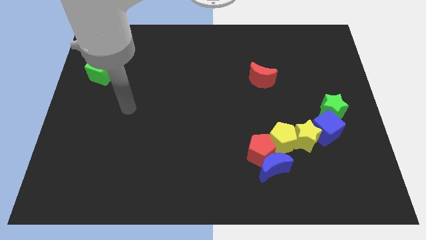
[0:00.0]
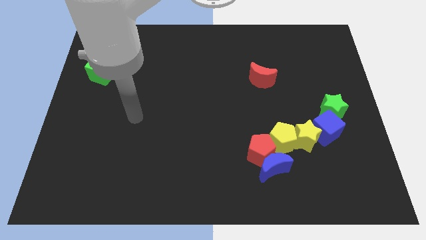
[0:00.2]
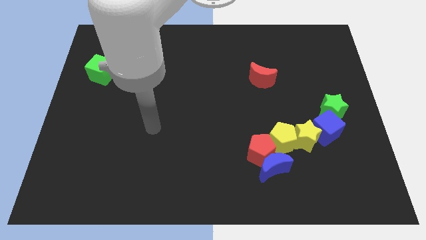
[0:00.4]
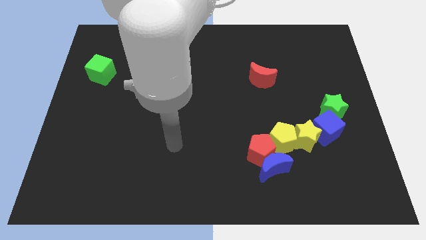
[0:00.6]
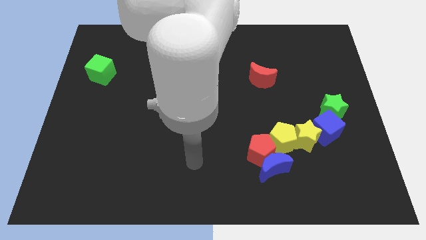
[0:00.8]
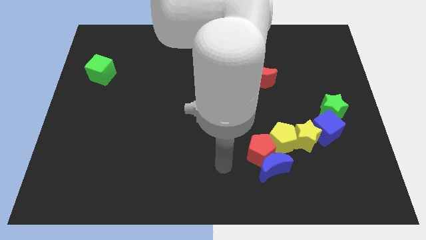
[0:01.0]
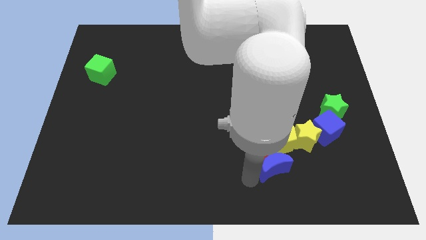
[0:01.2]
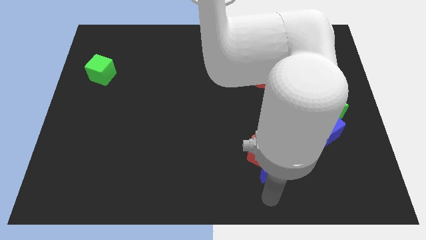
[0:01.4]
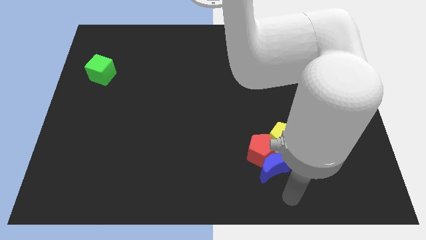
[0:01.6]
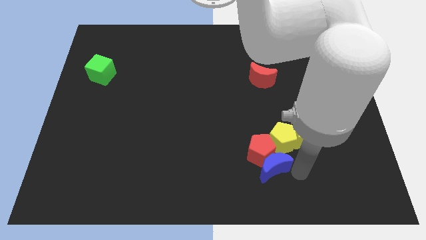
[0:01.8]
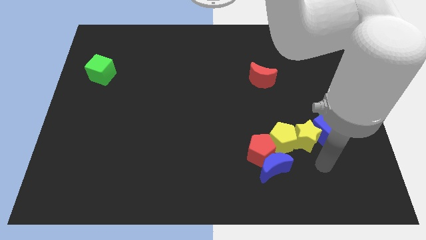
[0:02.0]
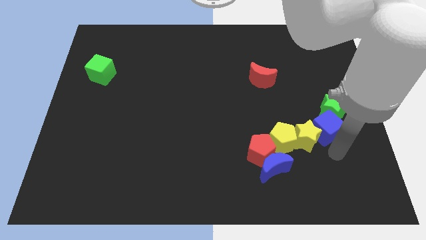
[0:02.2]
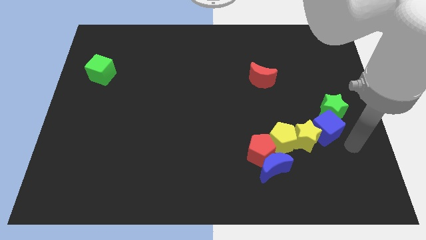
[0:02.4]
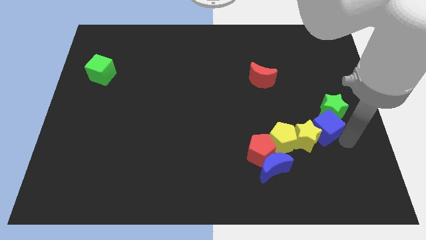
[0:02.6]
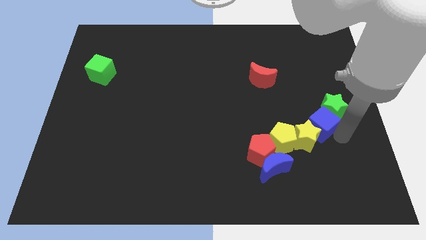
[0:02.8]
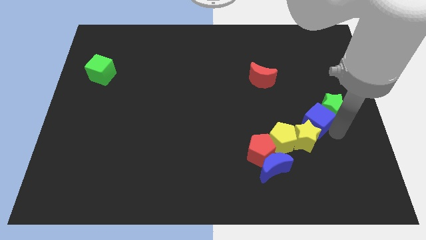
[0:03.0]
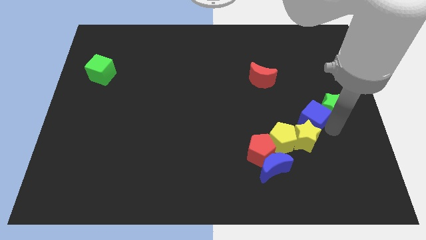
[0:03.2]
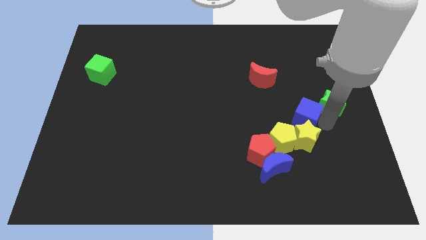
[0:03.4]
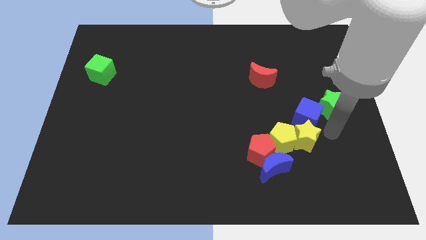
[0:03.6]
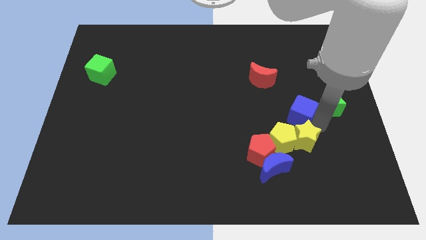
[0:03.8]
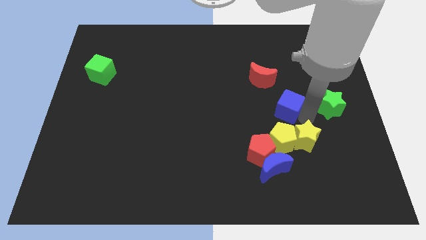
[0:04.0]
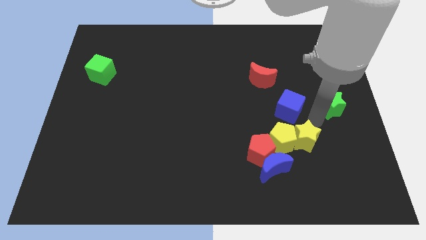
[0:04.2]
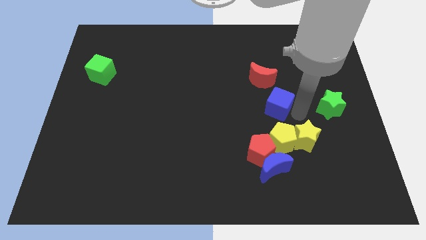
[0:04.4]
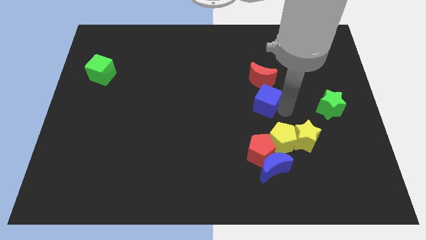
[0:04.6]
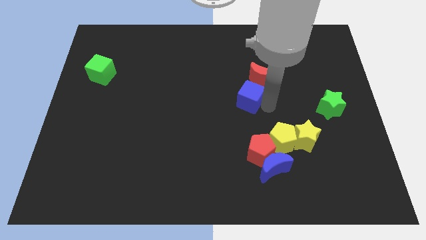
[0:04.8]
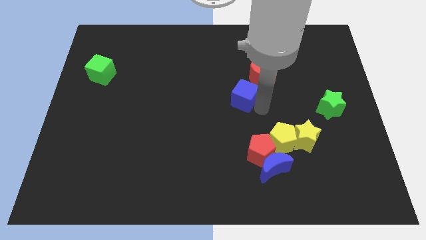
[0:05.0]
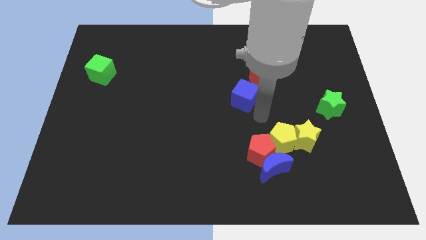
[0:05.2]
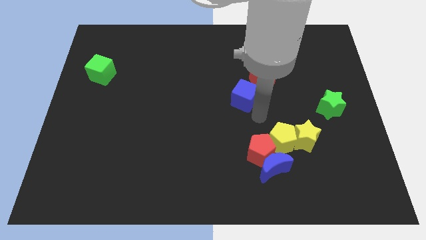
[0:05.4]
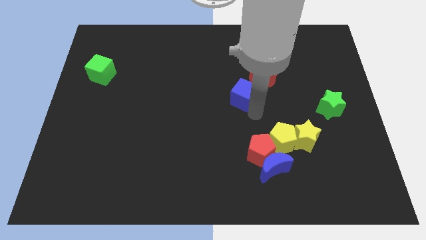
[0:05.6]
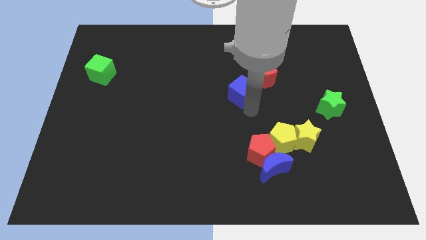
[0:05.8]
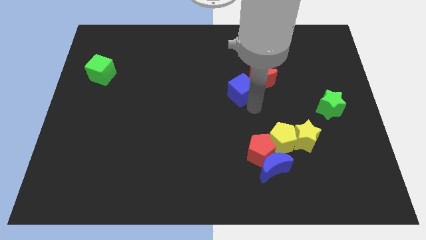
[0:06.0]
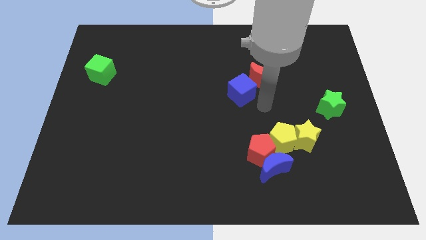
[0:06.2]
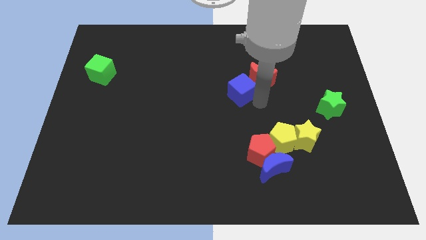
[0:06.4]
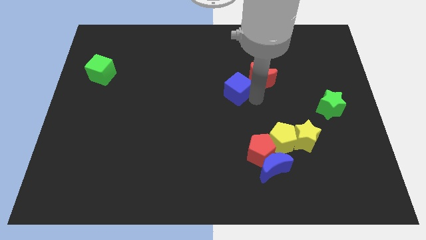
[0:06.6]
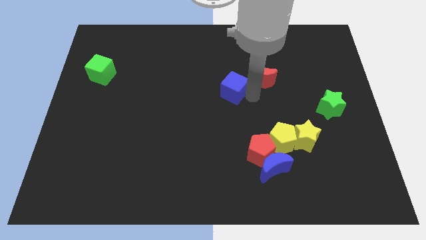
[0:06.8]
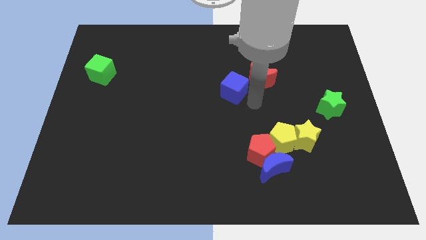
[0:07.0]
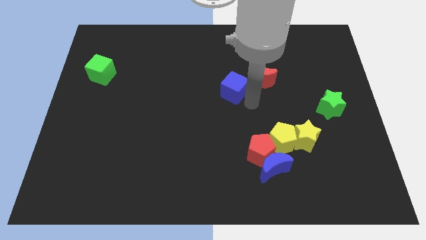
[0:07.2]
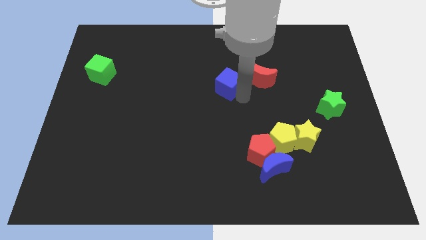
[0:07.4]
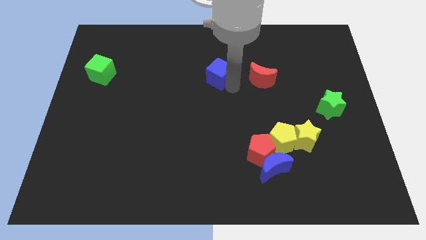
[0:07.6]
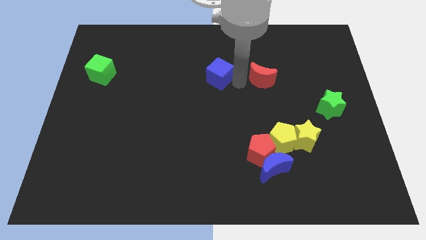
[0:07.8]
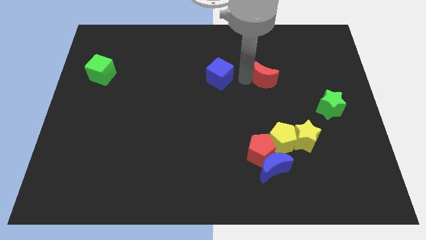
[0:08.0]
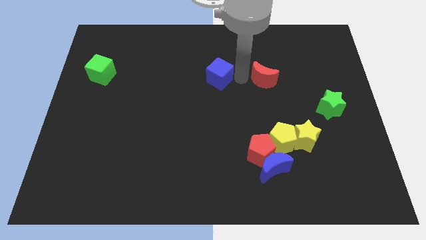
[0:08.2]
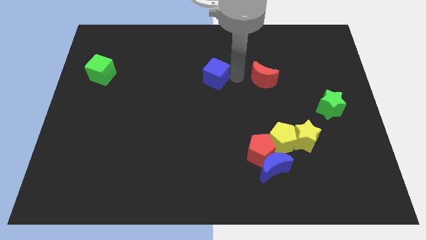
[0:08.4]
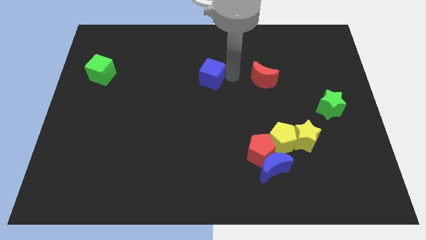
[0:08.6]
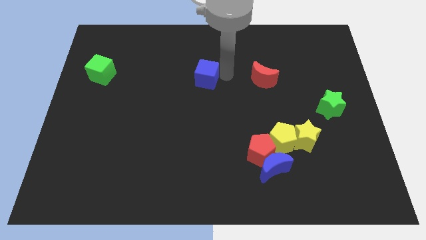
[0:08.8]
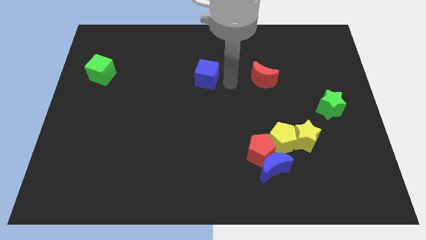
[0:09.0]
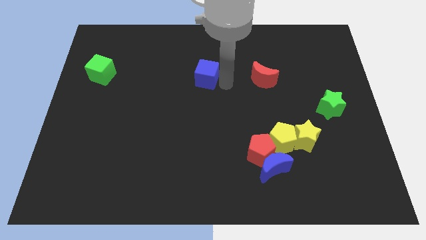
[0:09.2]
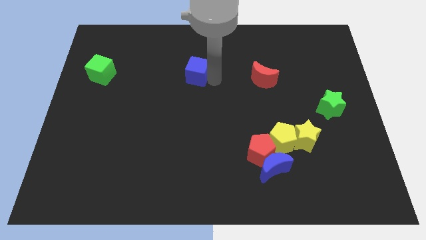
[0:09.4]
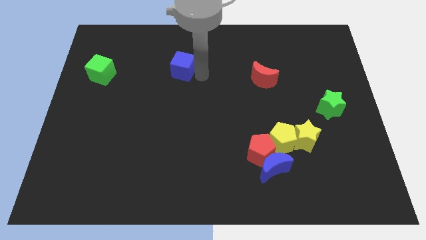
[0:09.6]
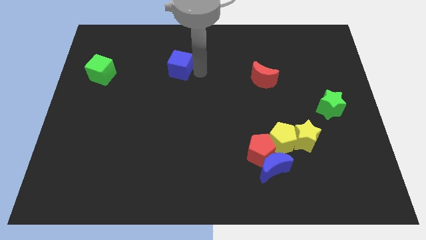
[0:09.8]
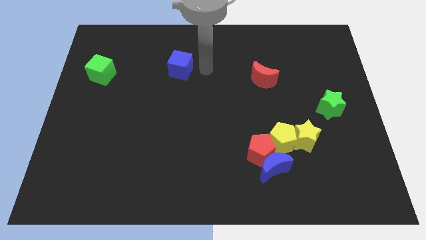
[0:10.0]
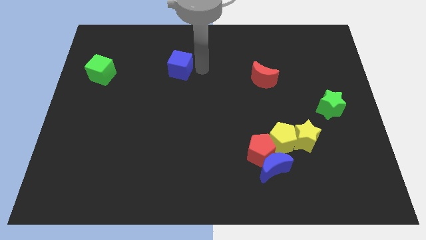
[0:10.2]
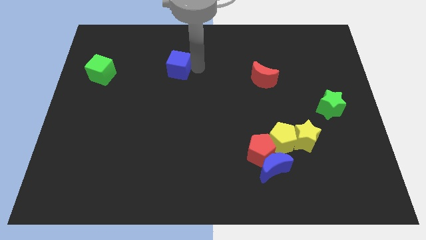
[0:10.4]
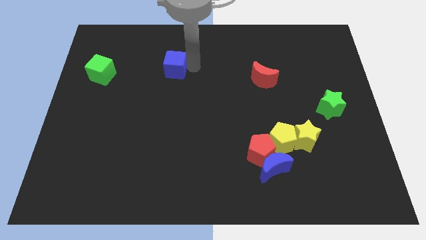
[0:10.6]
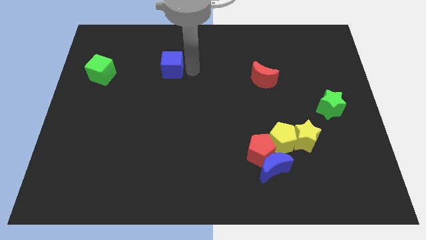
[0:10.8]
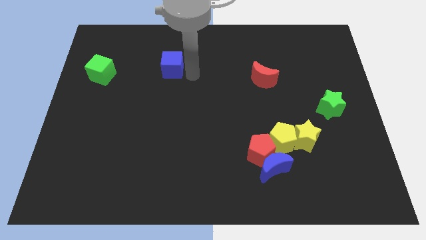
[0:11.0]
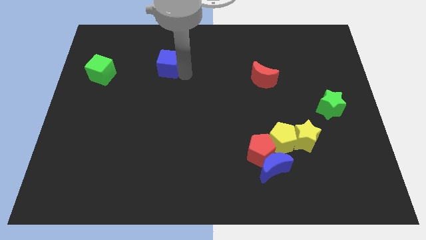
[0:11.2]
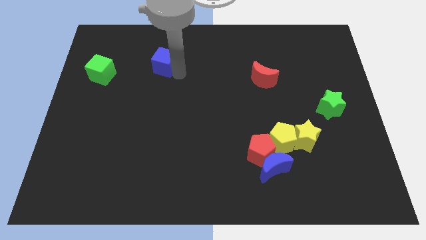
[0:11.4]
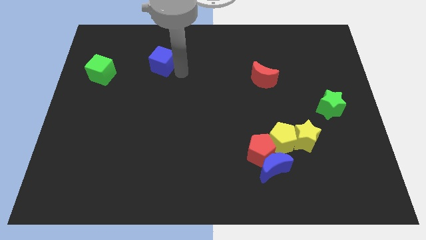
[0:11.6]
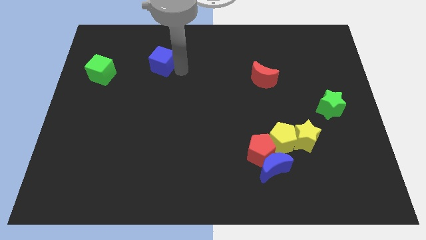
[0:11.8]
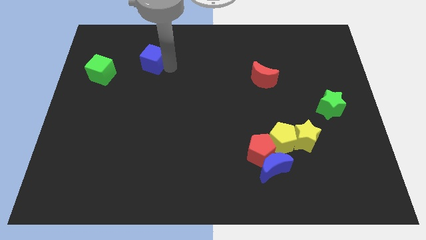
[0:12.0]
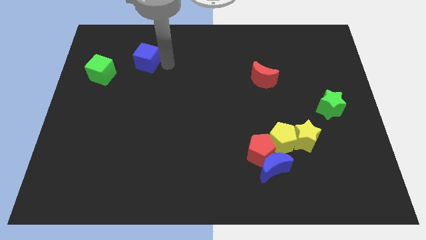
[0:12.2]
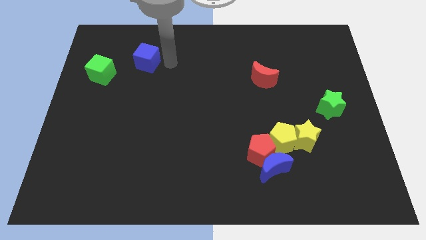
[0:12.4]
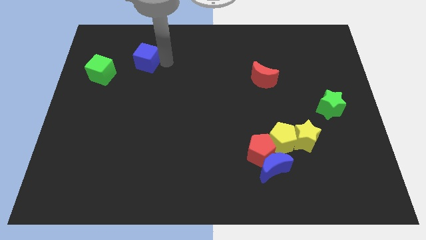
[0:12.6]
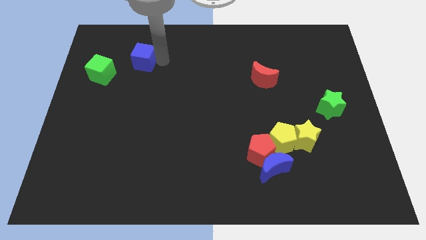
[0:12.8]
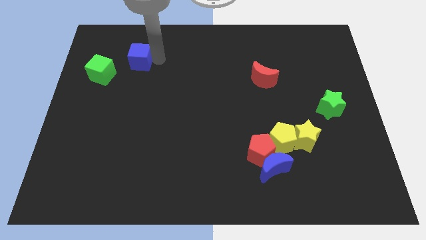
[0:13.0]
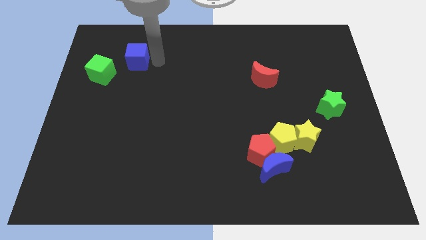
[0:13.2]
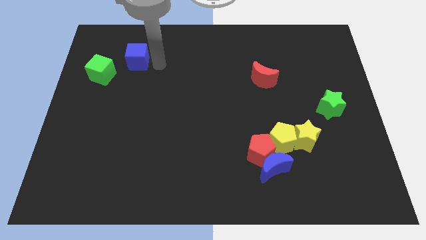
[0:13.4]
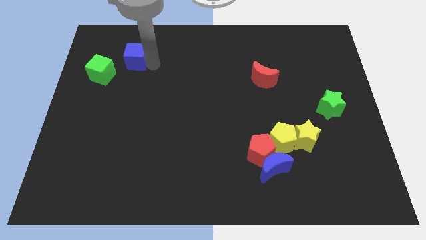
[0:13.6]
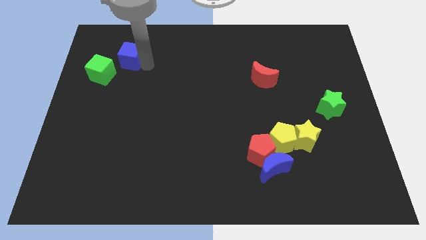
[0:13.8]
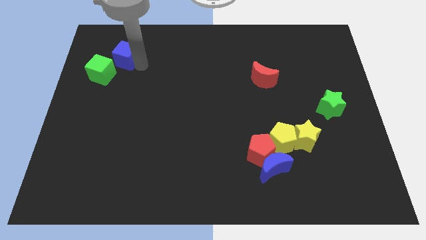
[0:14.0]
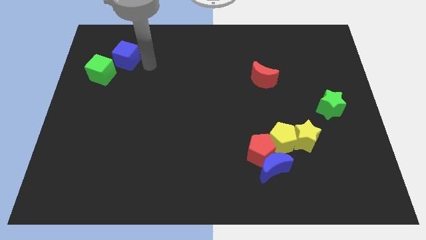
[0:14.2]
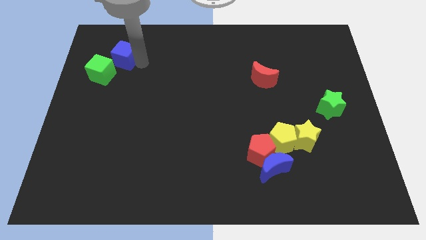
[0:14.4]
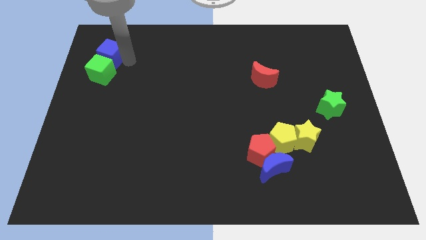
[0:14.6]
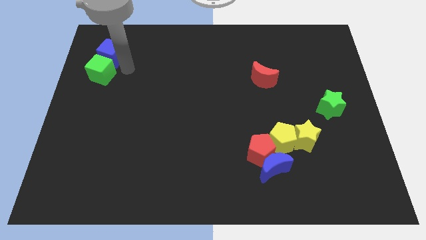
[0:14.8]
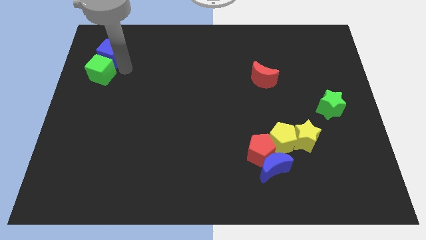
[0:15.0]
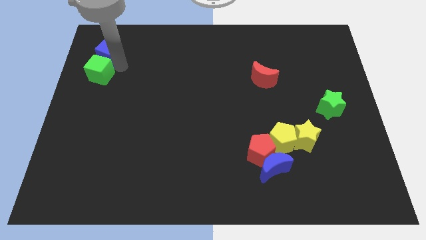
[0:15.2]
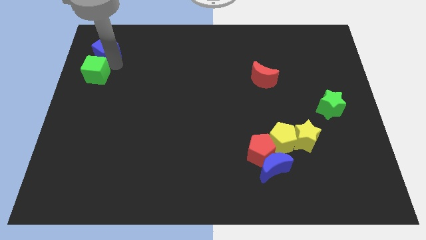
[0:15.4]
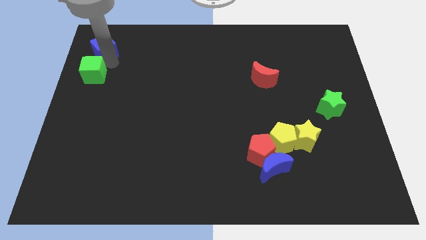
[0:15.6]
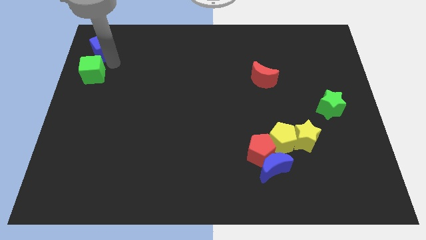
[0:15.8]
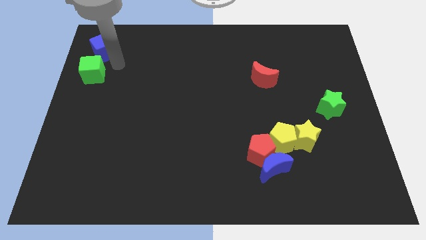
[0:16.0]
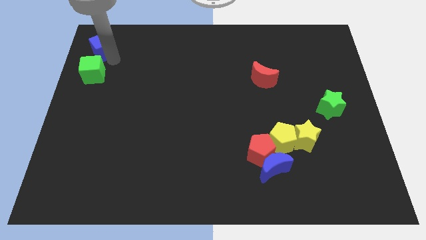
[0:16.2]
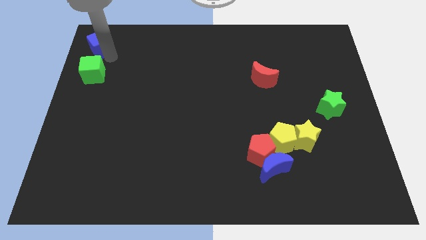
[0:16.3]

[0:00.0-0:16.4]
move the blue cube to the top left of the board
